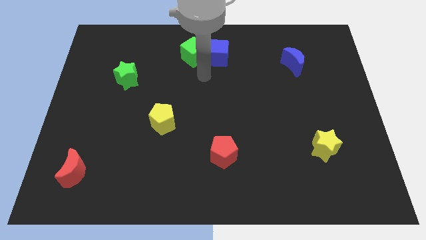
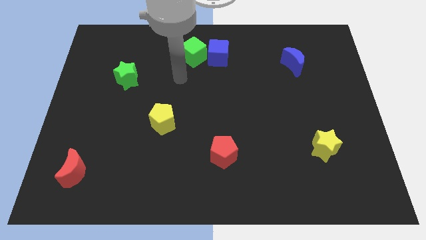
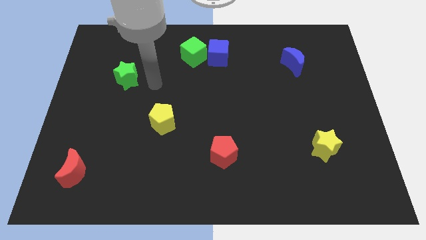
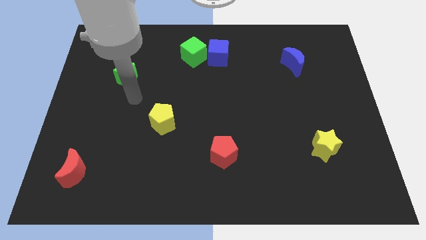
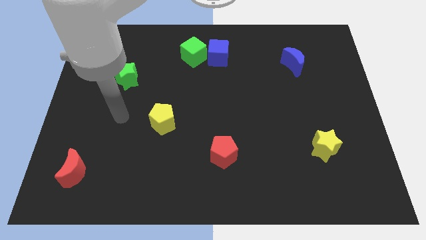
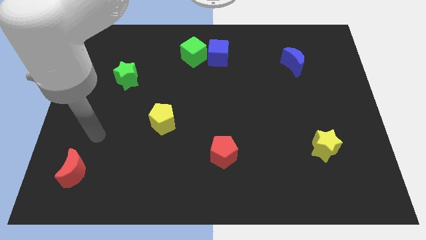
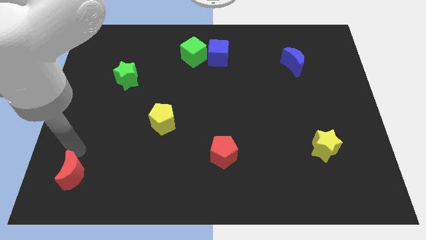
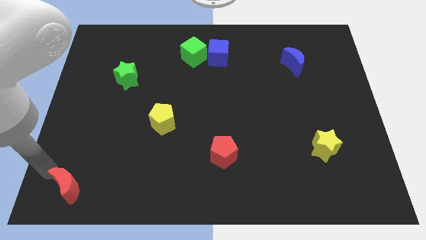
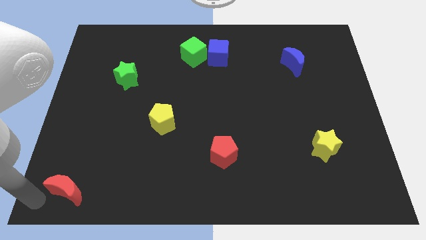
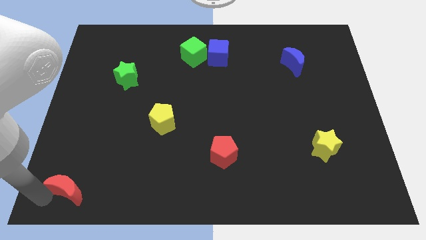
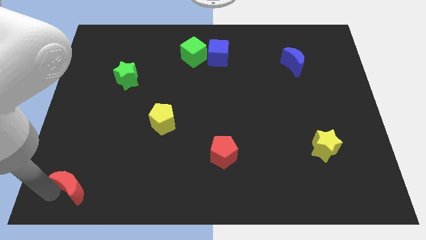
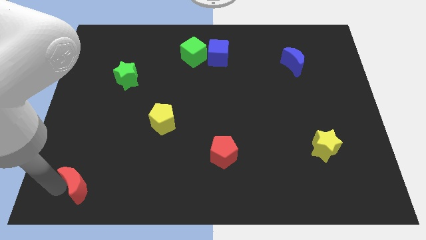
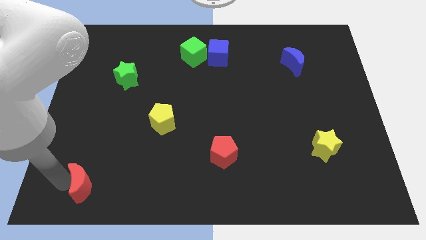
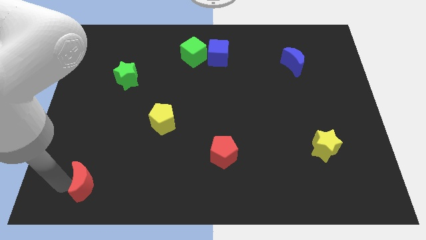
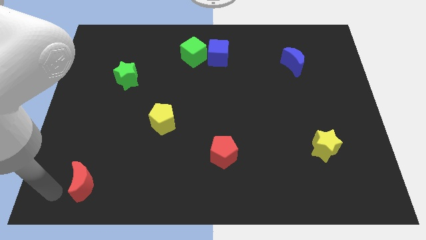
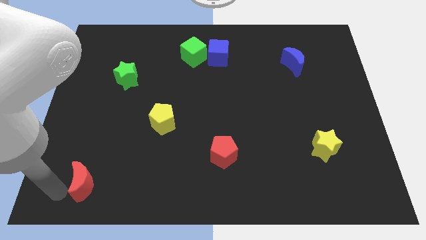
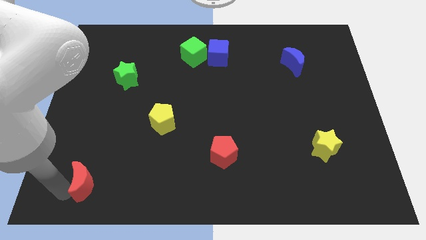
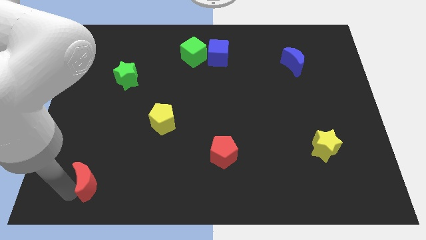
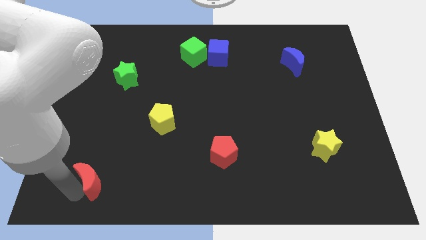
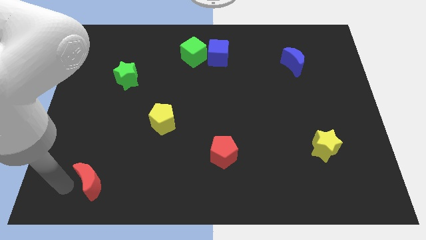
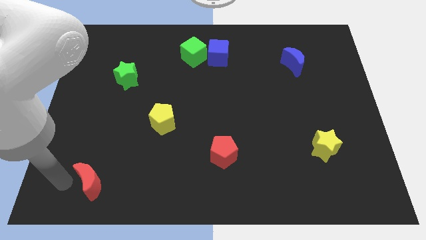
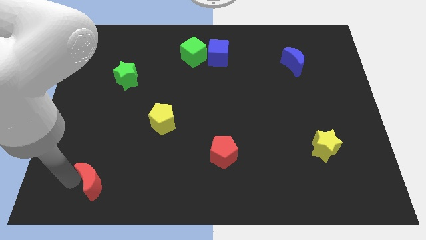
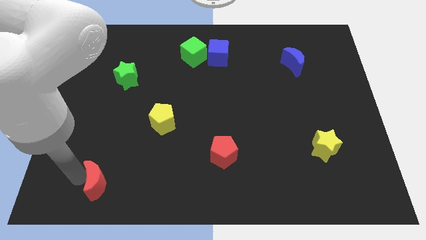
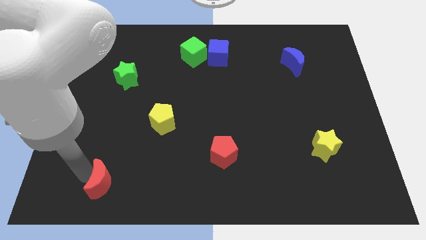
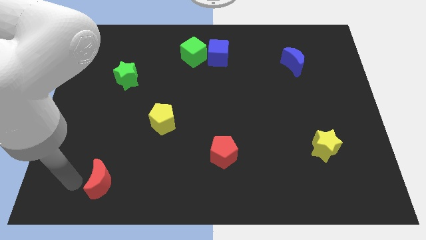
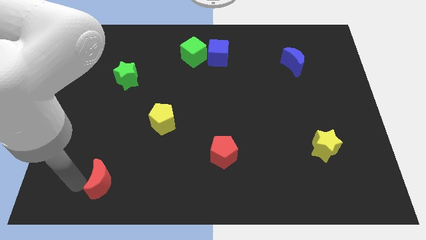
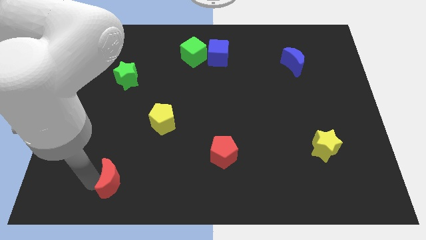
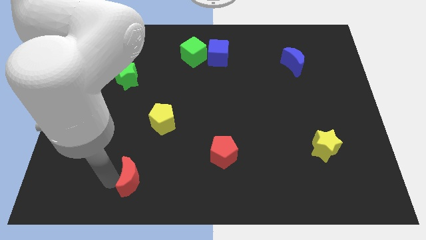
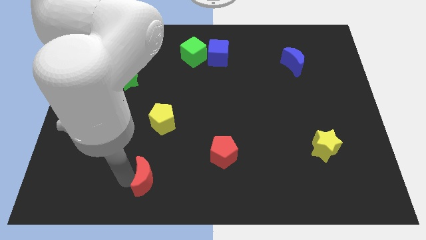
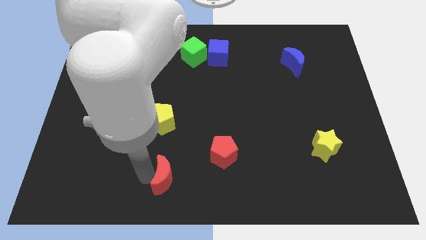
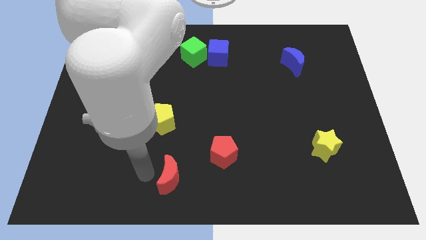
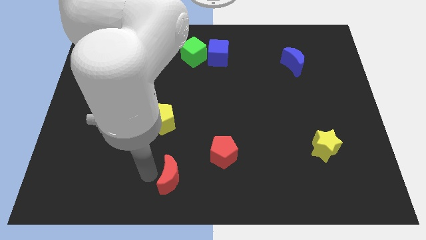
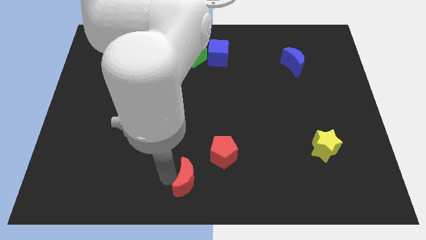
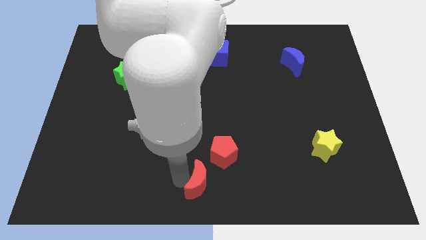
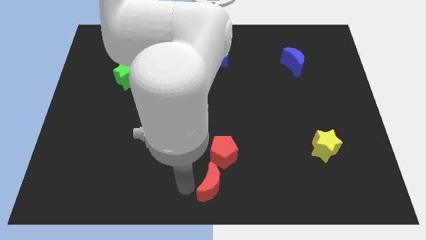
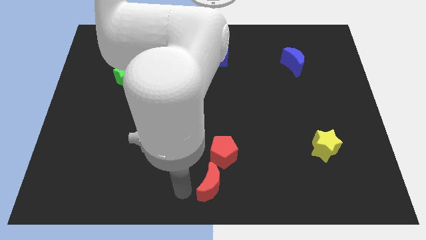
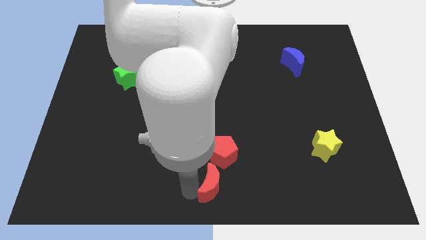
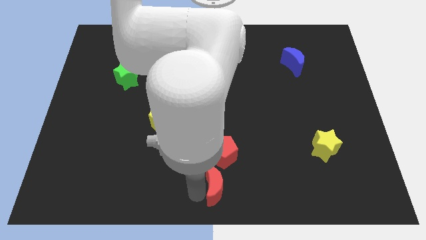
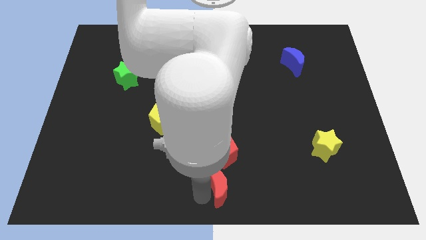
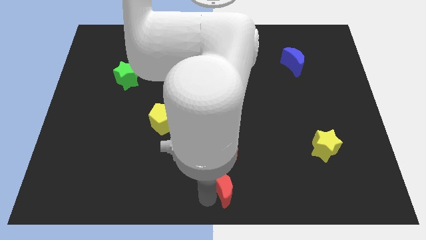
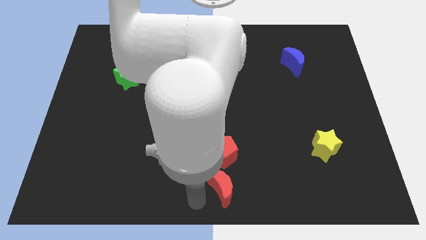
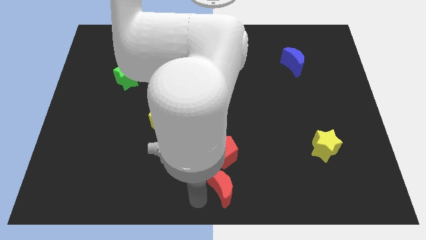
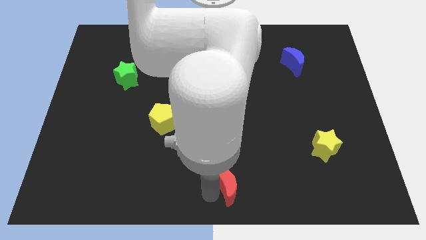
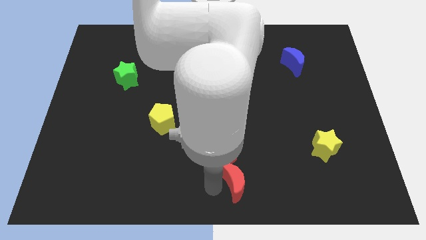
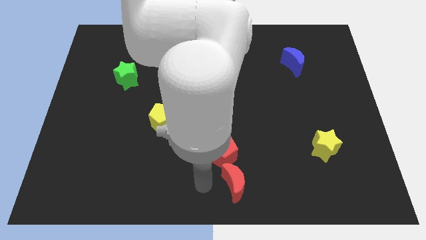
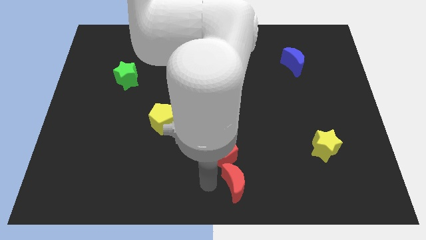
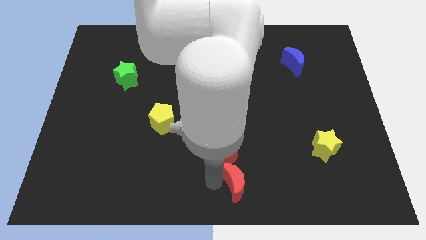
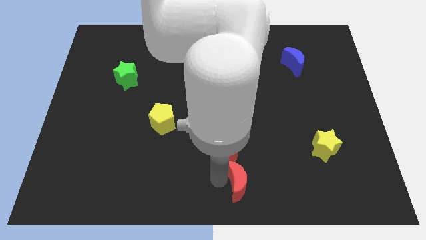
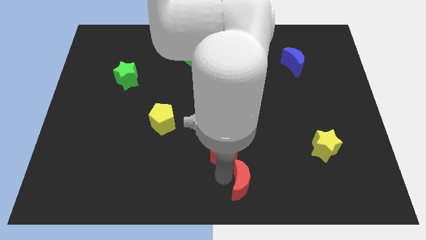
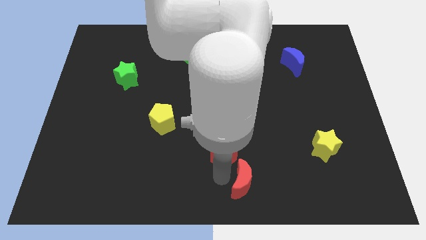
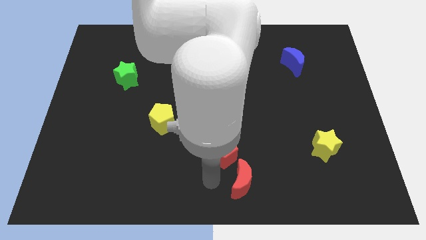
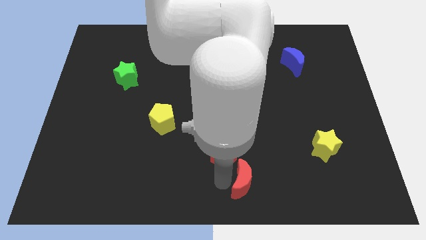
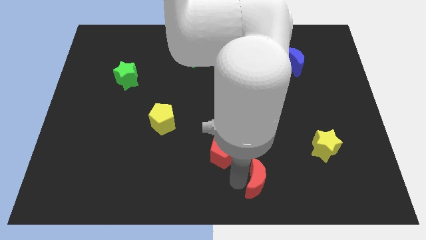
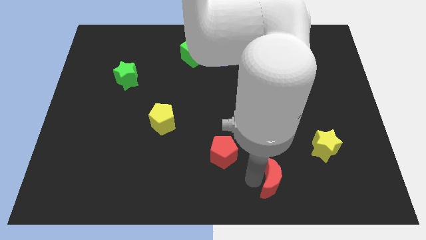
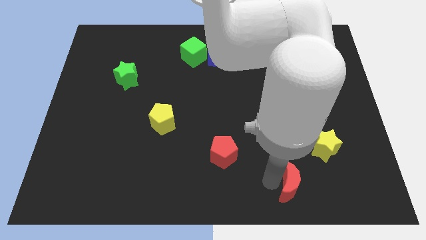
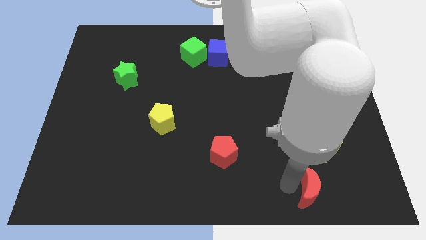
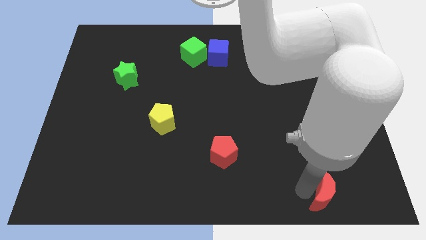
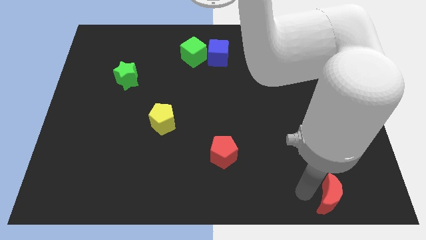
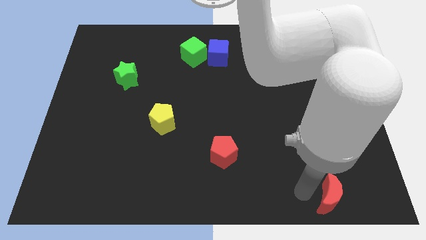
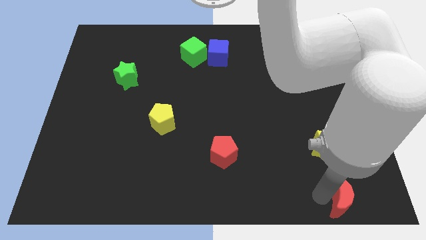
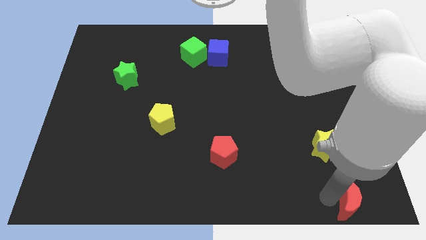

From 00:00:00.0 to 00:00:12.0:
push the red moon to the lower right corner
